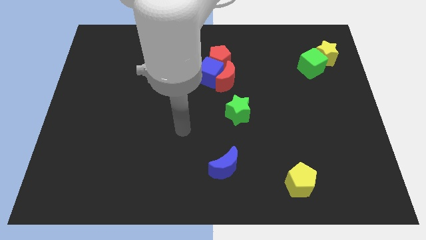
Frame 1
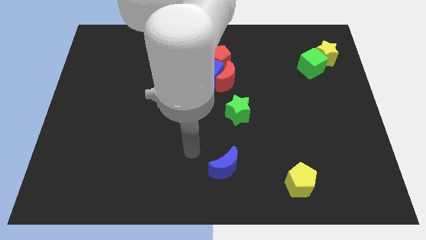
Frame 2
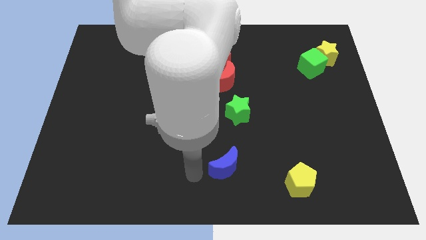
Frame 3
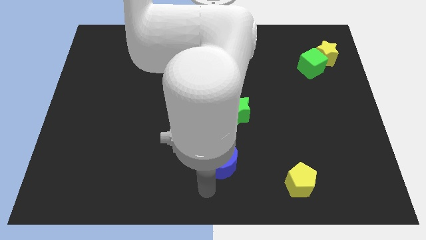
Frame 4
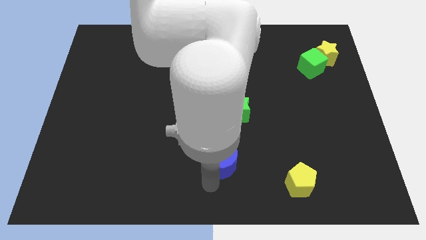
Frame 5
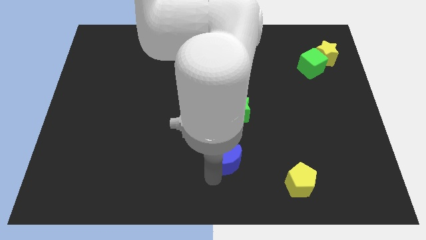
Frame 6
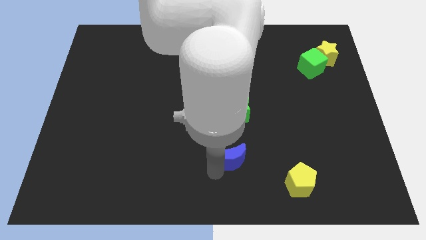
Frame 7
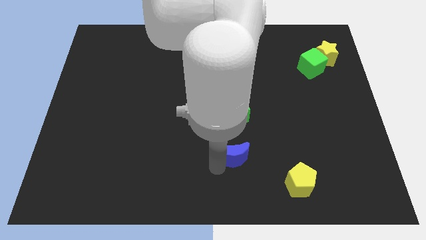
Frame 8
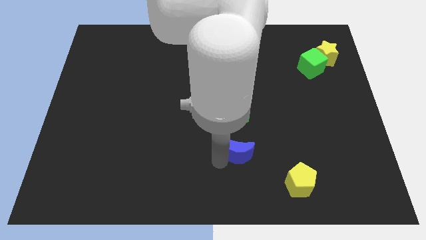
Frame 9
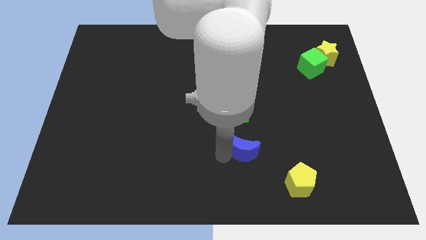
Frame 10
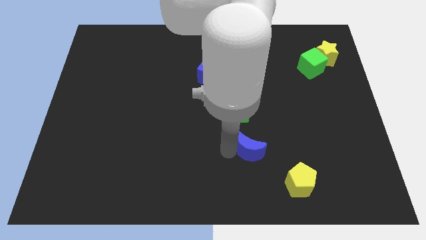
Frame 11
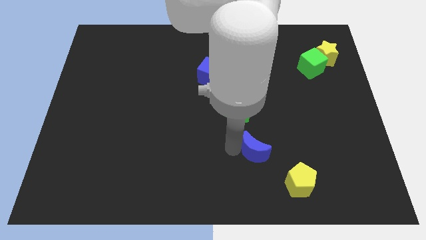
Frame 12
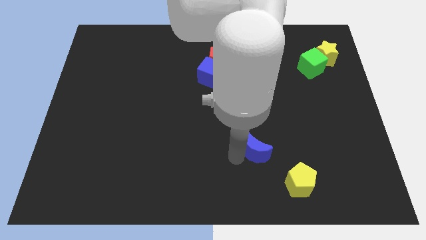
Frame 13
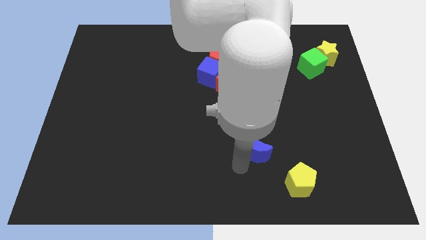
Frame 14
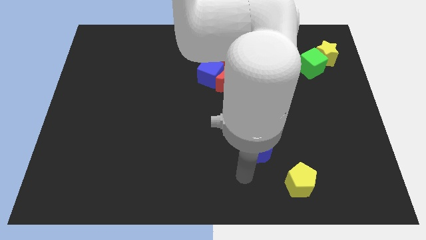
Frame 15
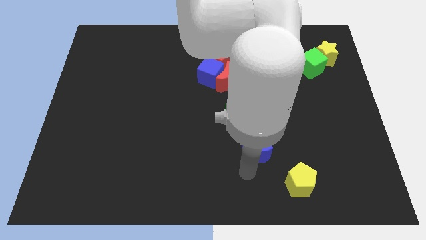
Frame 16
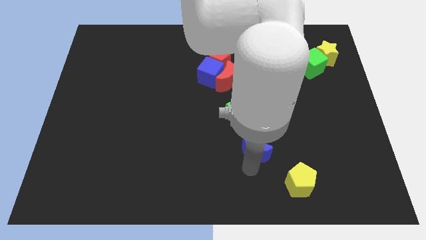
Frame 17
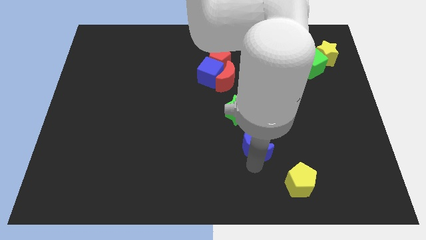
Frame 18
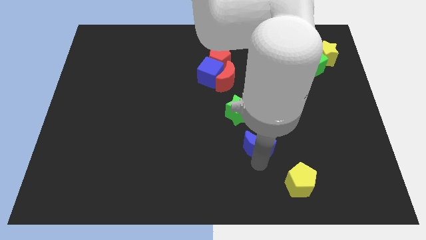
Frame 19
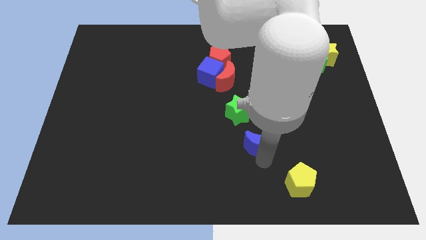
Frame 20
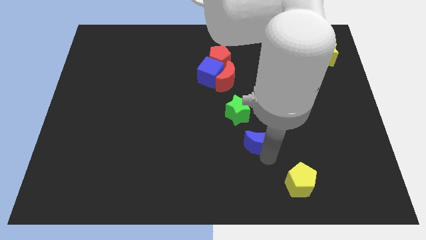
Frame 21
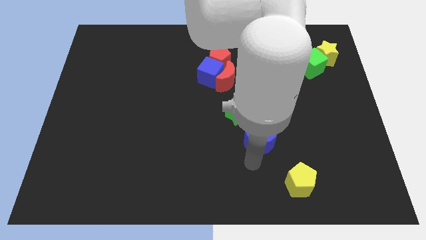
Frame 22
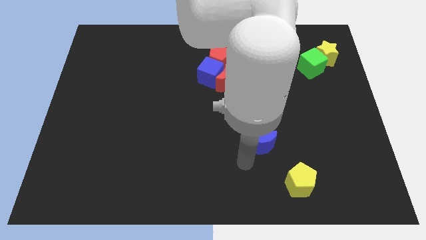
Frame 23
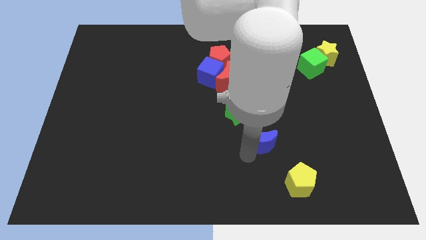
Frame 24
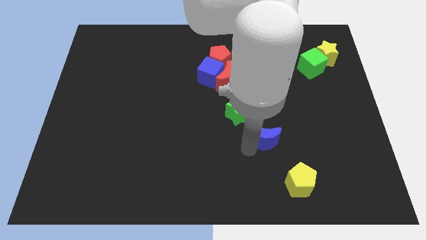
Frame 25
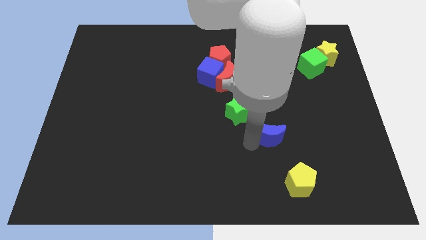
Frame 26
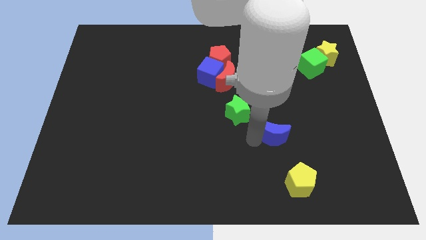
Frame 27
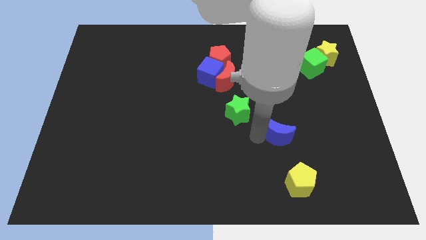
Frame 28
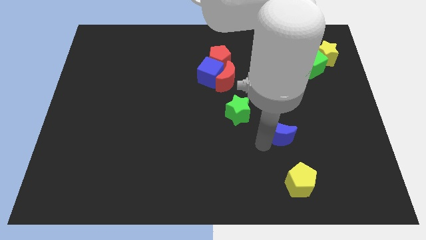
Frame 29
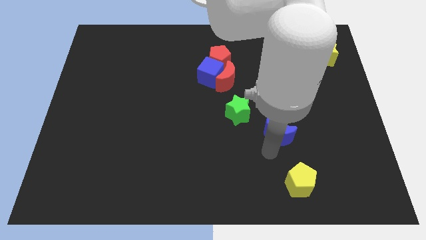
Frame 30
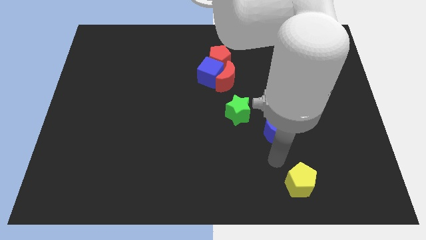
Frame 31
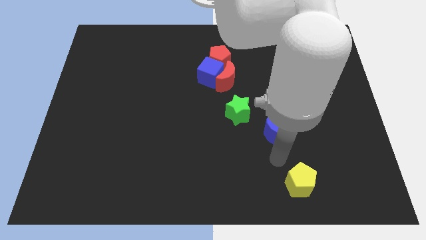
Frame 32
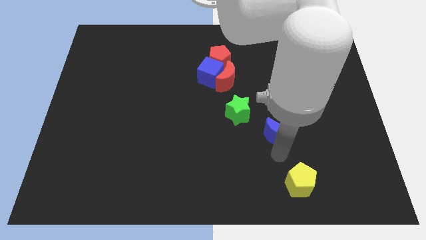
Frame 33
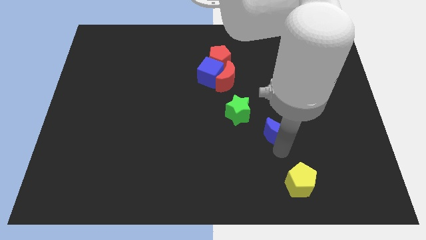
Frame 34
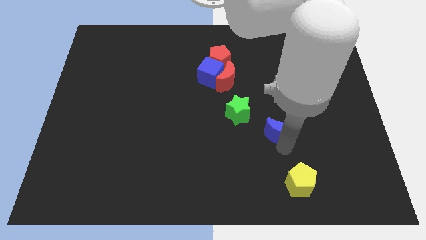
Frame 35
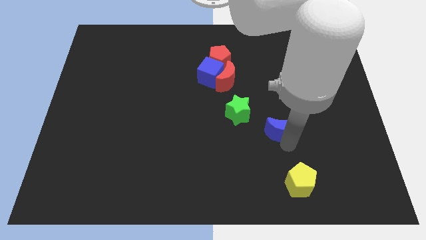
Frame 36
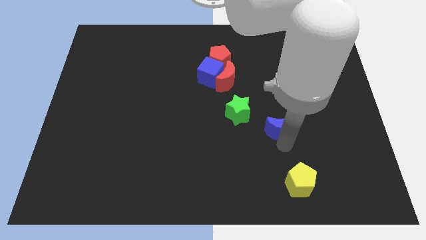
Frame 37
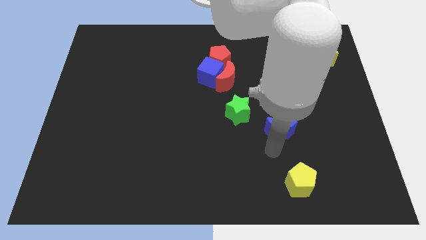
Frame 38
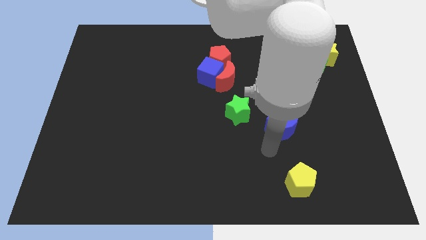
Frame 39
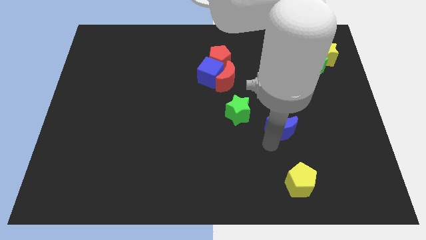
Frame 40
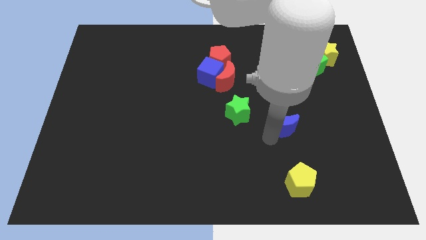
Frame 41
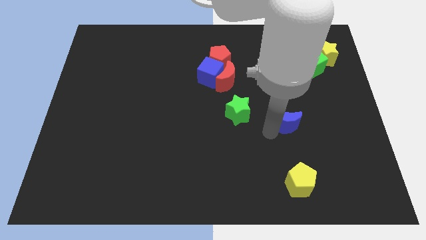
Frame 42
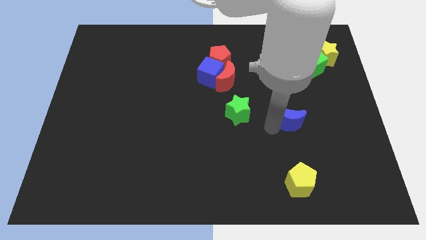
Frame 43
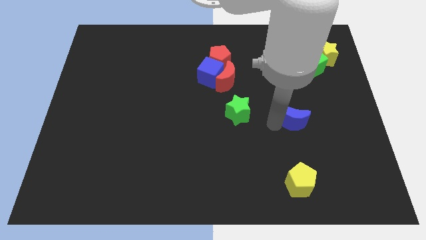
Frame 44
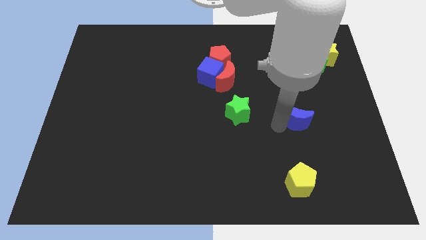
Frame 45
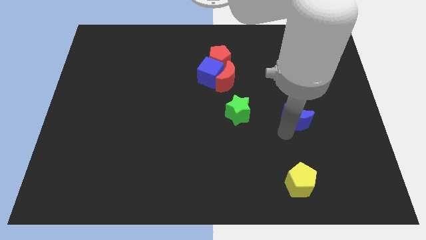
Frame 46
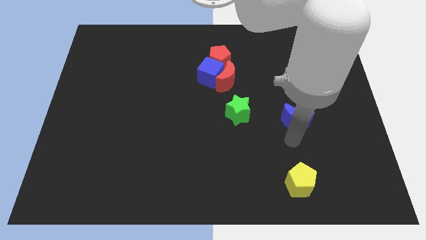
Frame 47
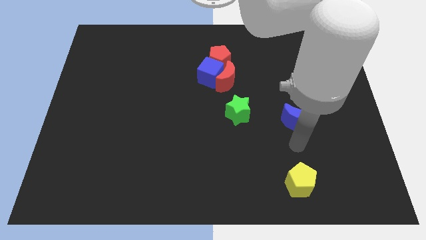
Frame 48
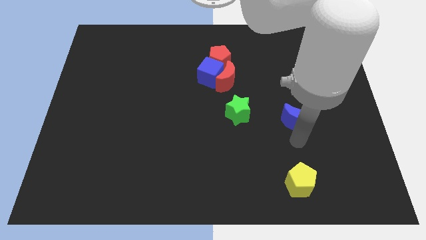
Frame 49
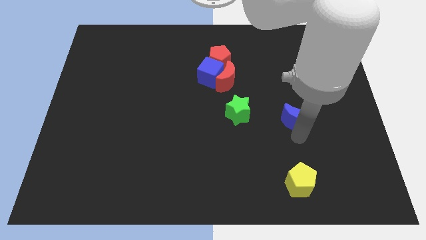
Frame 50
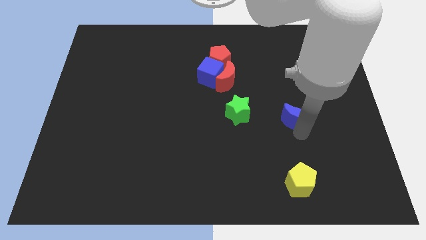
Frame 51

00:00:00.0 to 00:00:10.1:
slide the blue moon up and then right

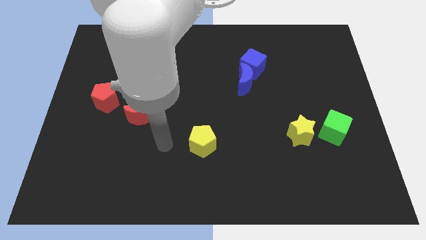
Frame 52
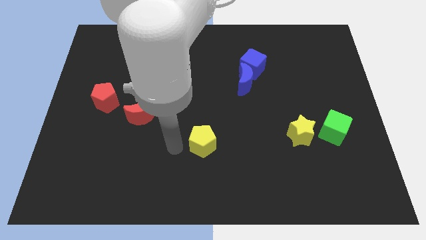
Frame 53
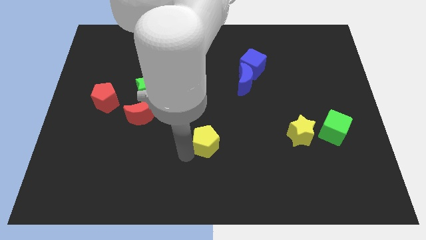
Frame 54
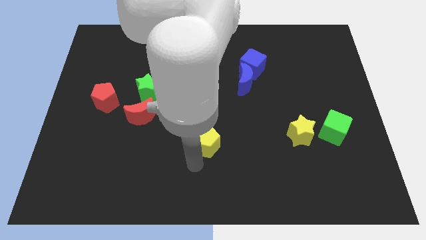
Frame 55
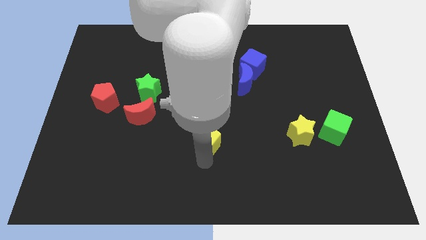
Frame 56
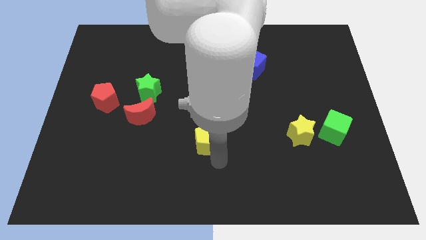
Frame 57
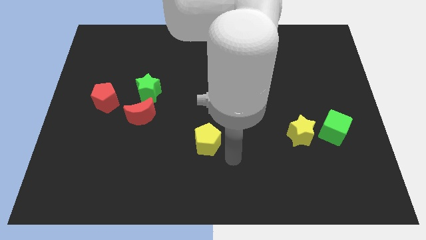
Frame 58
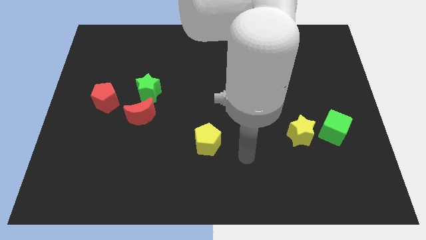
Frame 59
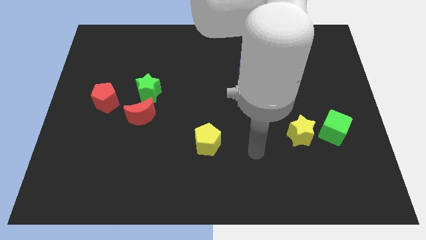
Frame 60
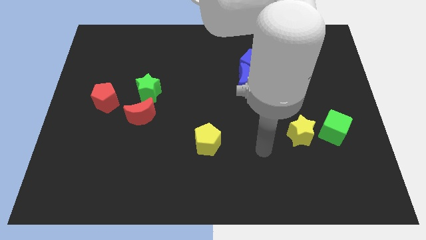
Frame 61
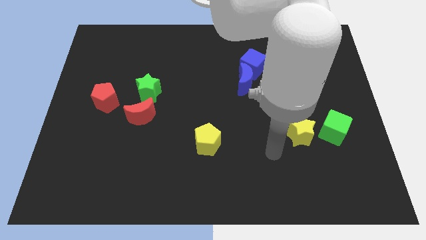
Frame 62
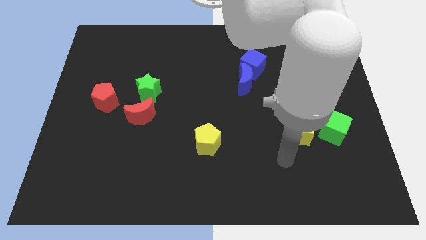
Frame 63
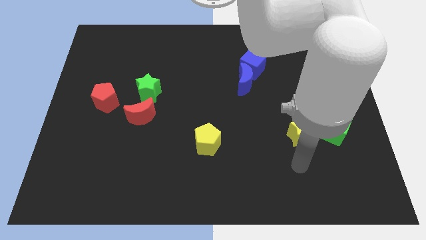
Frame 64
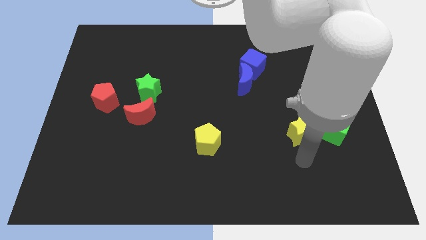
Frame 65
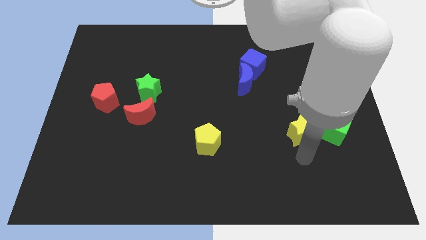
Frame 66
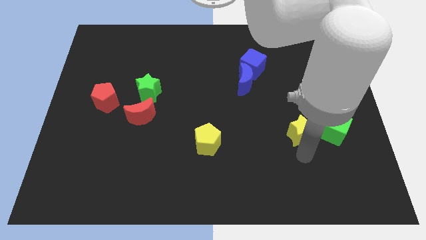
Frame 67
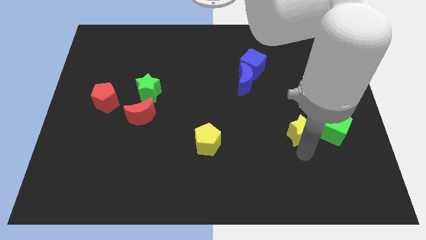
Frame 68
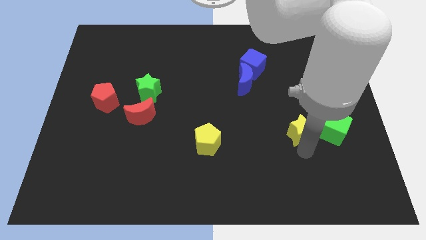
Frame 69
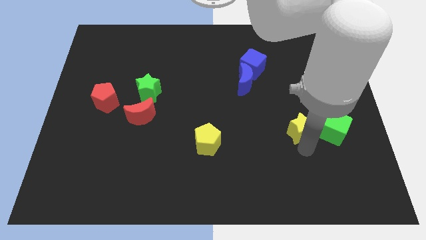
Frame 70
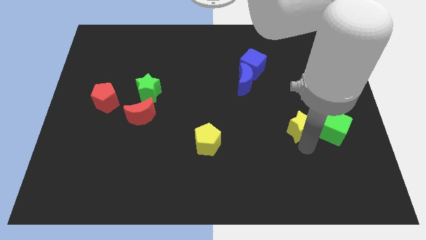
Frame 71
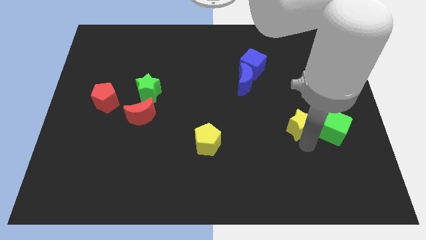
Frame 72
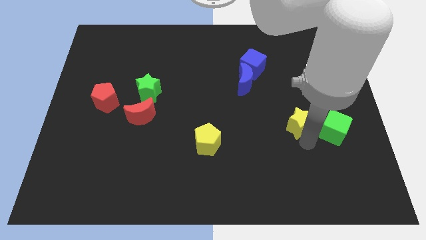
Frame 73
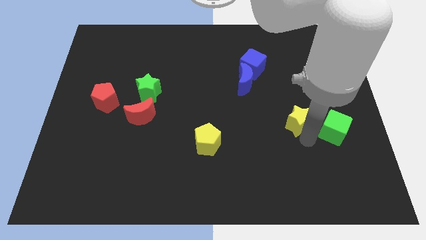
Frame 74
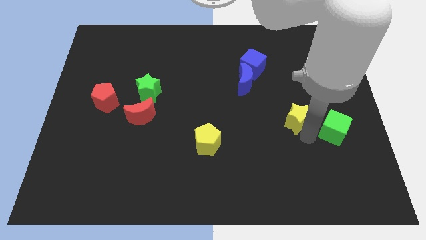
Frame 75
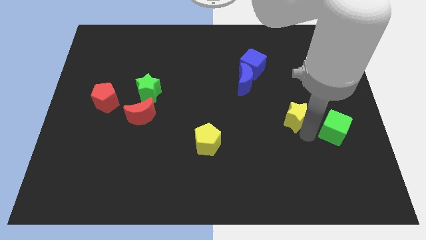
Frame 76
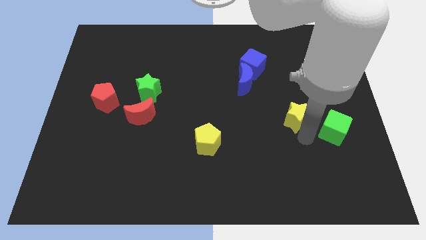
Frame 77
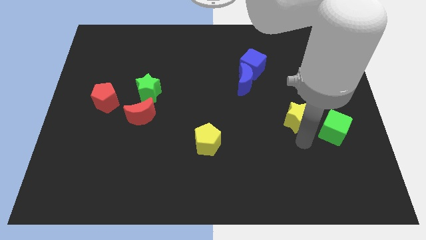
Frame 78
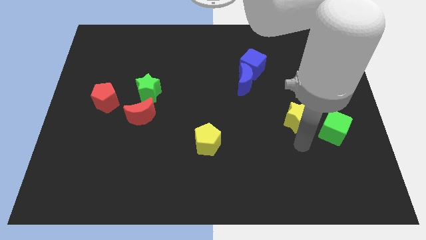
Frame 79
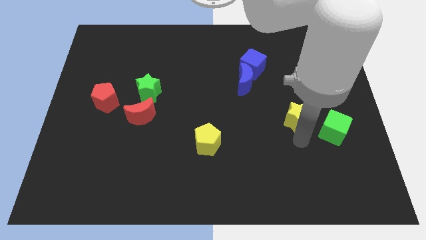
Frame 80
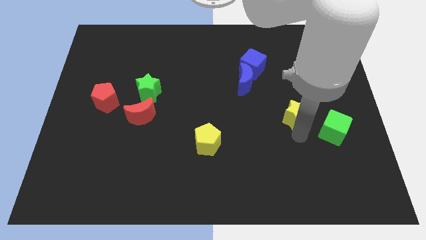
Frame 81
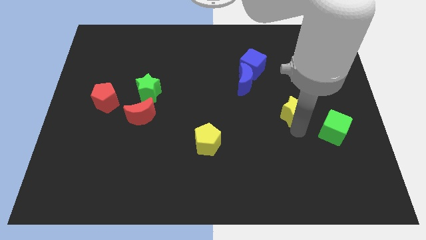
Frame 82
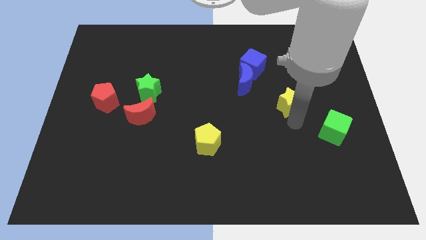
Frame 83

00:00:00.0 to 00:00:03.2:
slightly move the yellow star upwards
